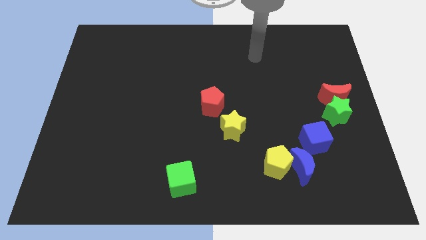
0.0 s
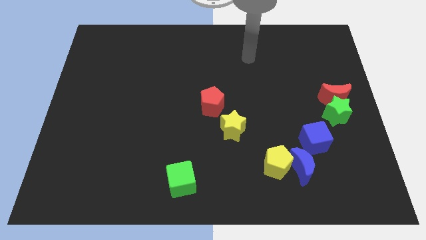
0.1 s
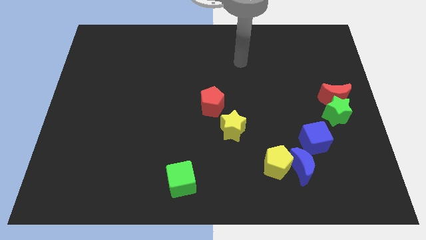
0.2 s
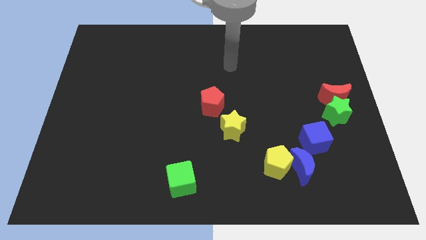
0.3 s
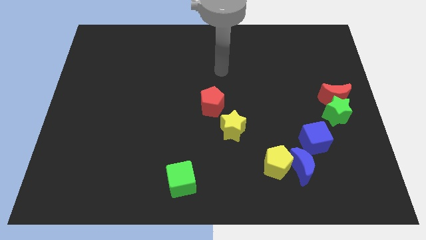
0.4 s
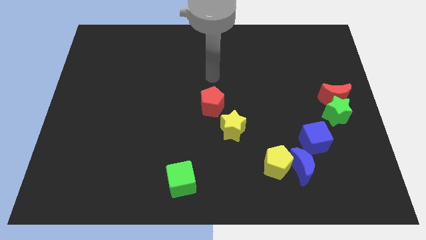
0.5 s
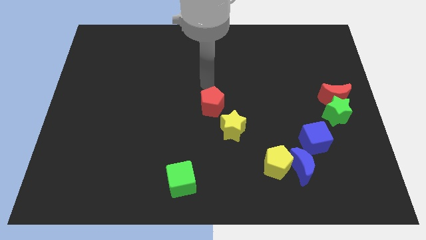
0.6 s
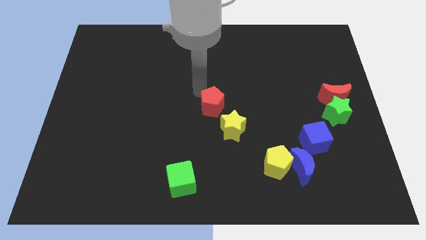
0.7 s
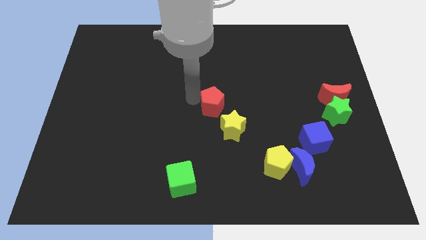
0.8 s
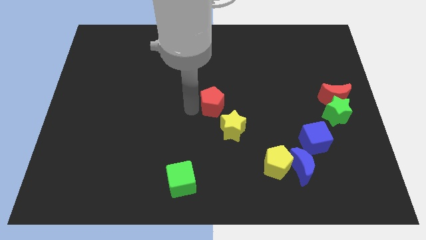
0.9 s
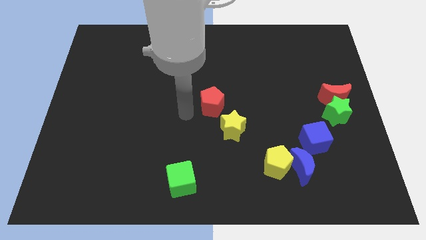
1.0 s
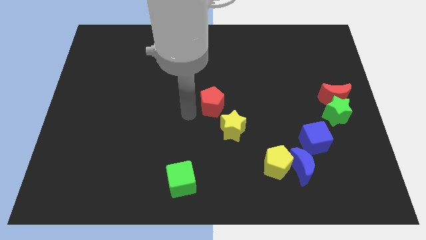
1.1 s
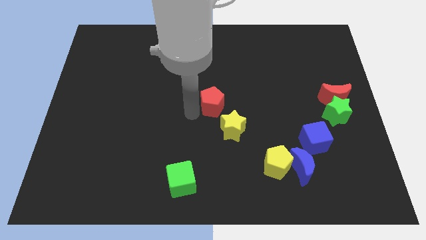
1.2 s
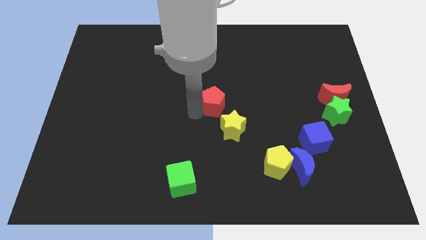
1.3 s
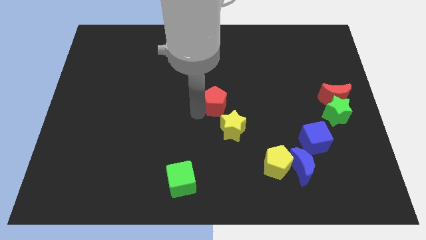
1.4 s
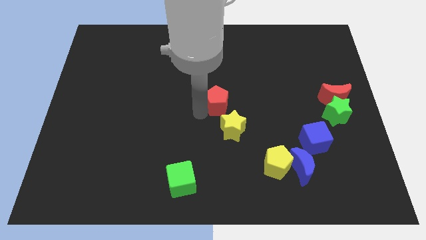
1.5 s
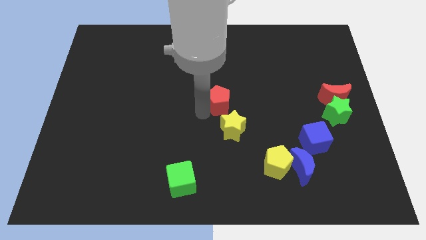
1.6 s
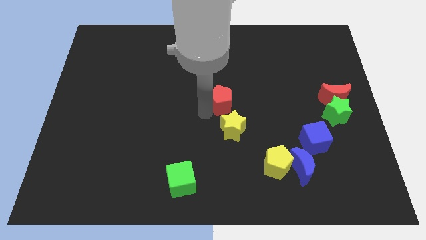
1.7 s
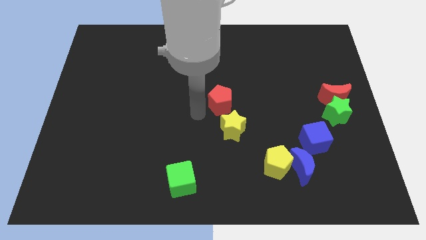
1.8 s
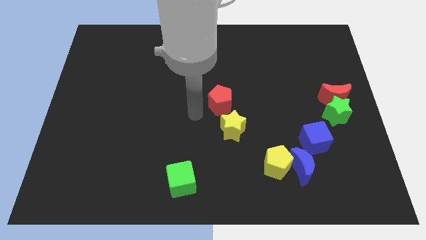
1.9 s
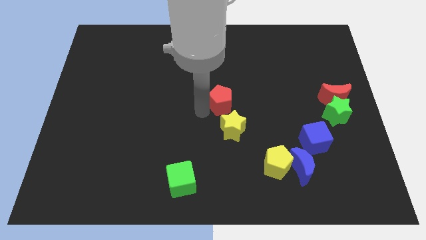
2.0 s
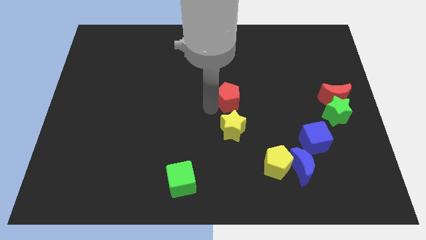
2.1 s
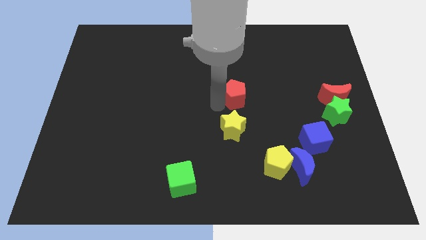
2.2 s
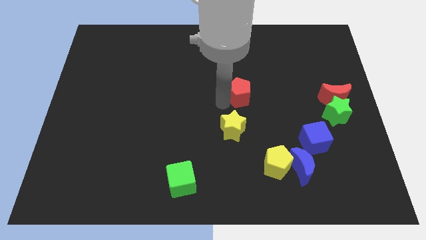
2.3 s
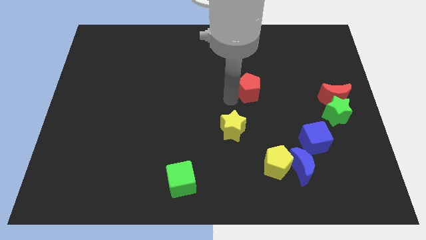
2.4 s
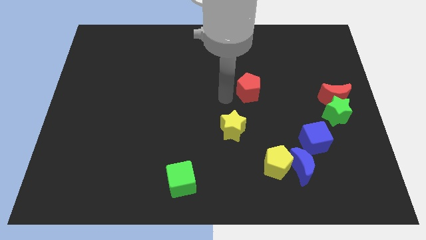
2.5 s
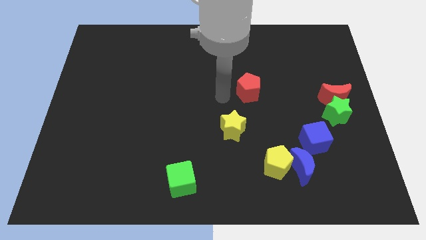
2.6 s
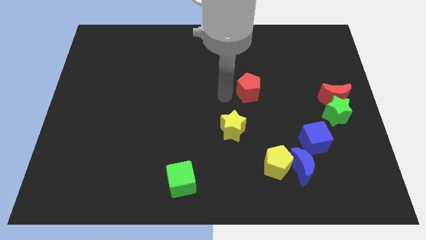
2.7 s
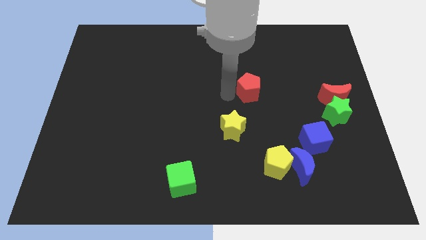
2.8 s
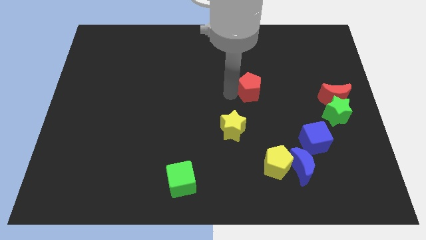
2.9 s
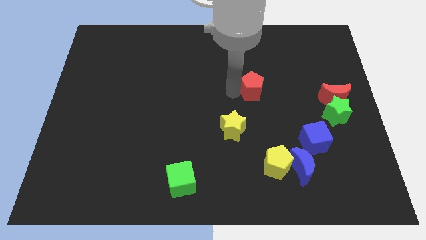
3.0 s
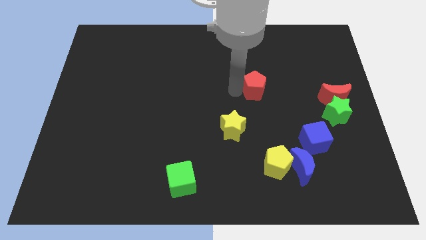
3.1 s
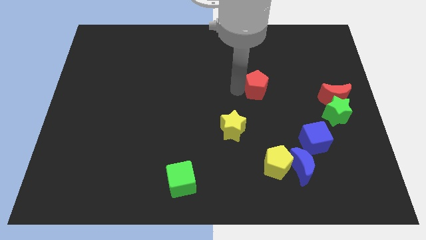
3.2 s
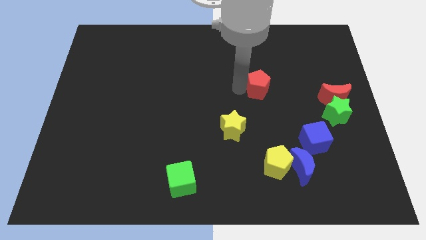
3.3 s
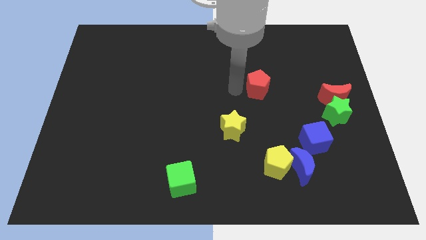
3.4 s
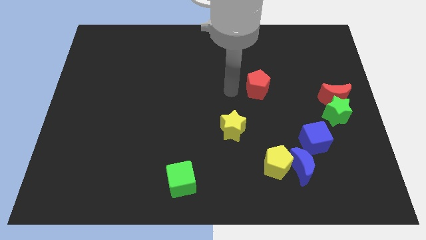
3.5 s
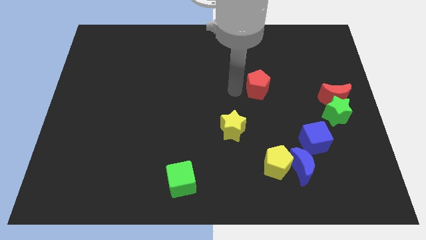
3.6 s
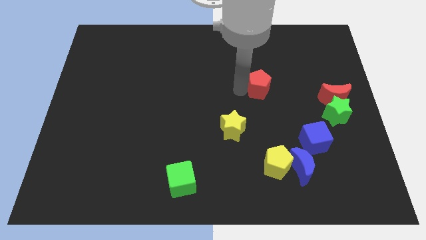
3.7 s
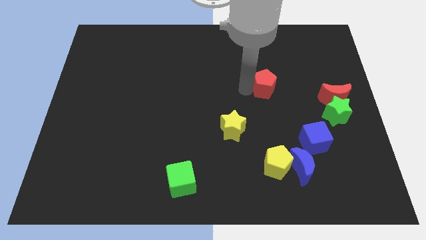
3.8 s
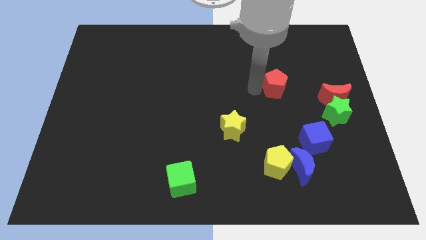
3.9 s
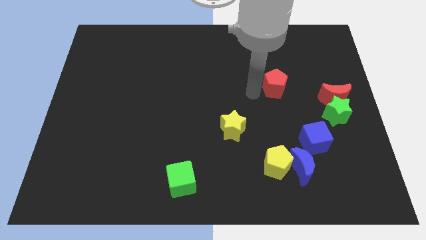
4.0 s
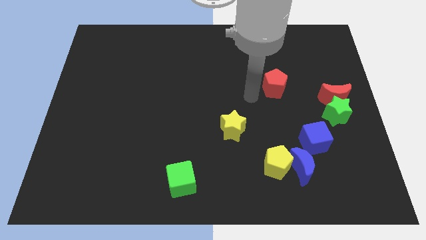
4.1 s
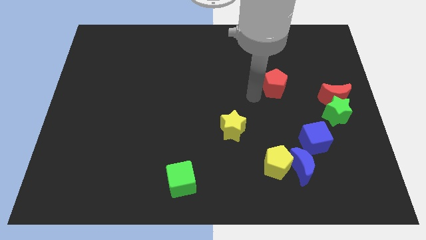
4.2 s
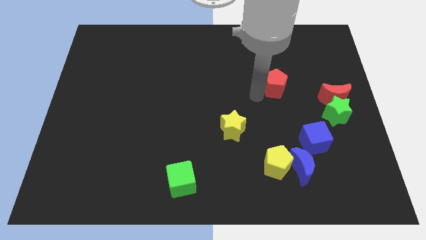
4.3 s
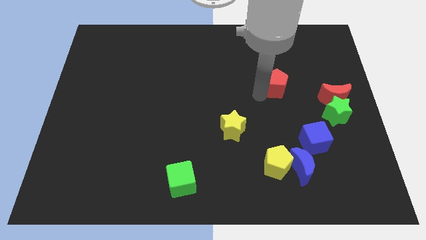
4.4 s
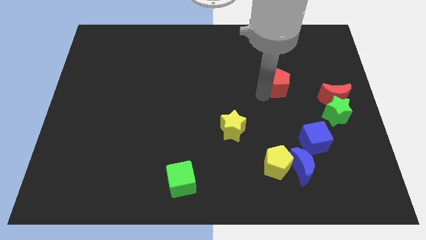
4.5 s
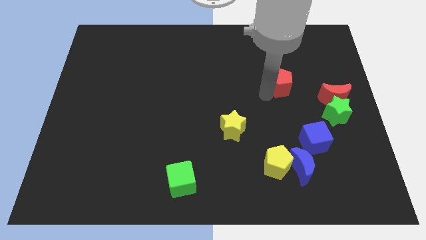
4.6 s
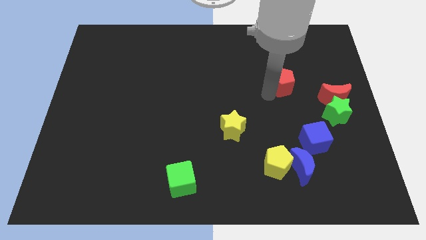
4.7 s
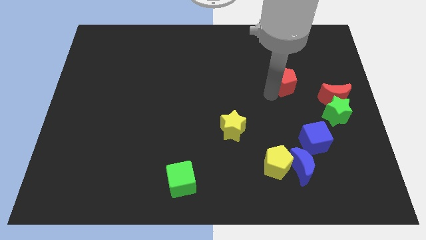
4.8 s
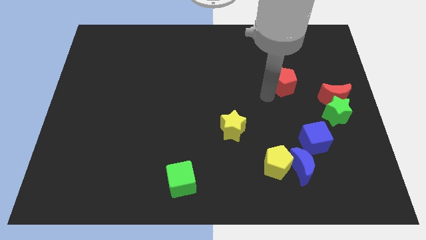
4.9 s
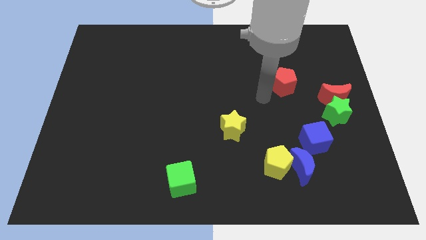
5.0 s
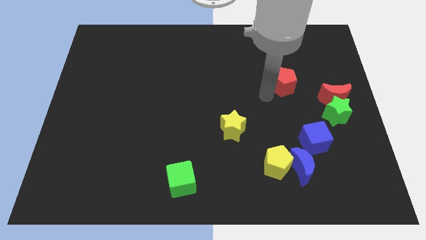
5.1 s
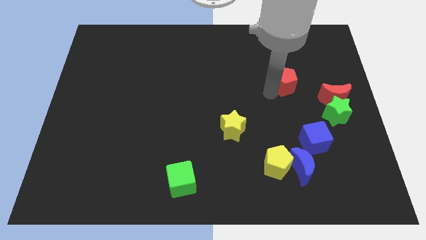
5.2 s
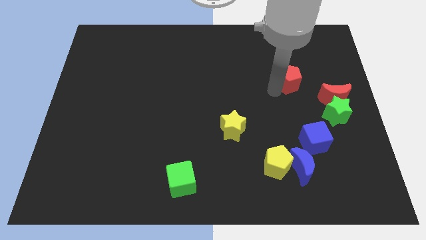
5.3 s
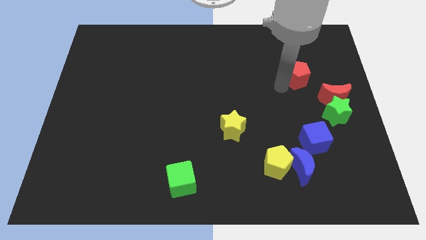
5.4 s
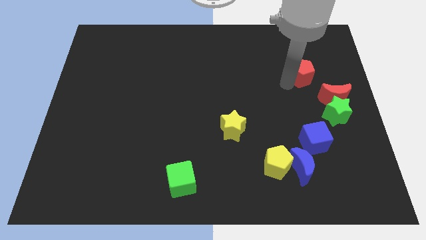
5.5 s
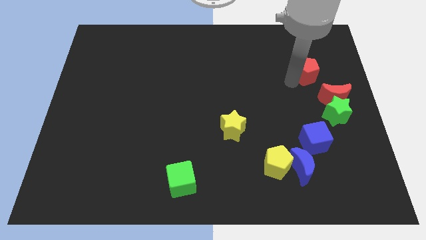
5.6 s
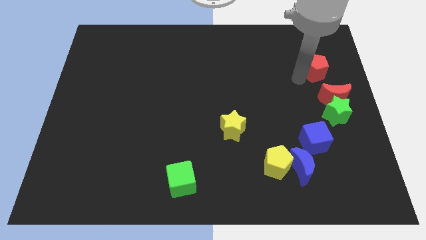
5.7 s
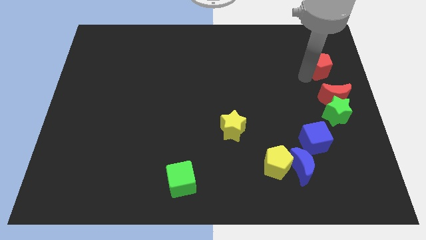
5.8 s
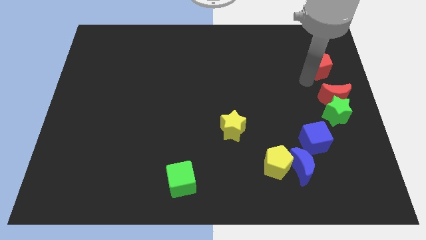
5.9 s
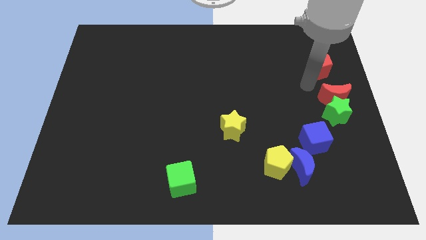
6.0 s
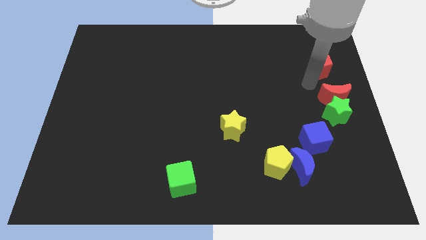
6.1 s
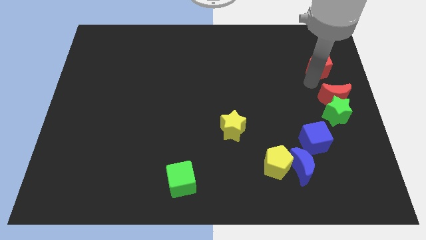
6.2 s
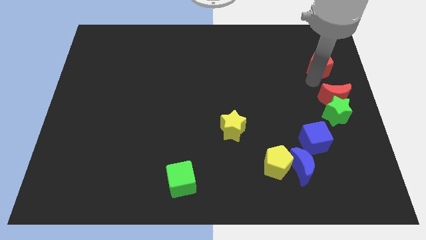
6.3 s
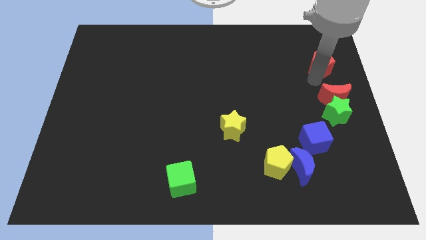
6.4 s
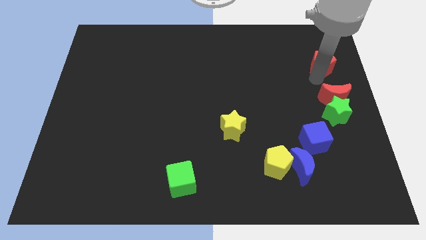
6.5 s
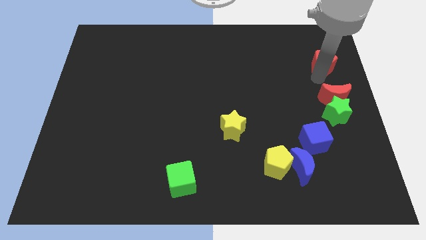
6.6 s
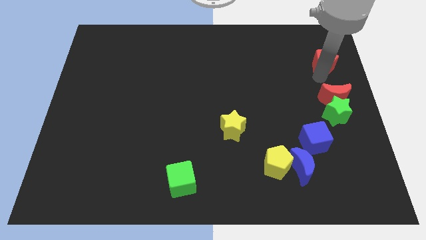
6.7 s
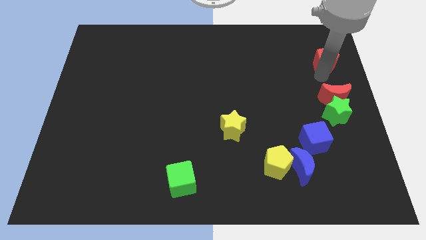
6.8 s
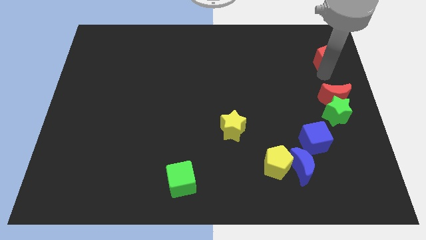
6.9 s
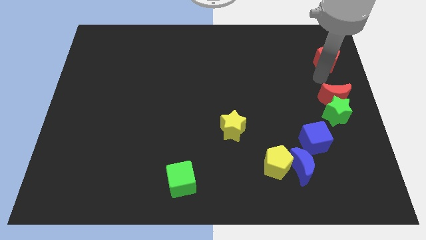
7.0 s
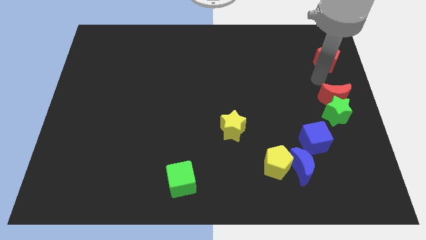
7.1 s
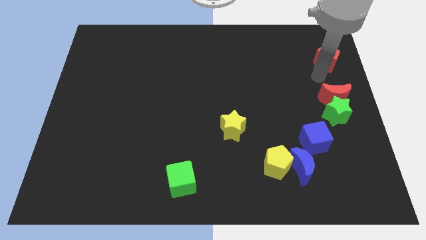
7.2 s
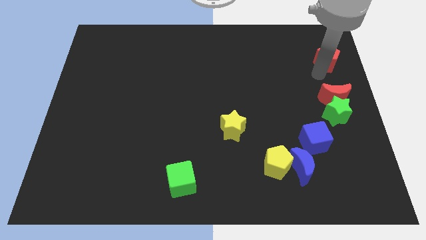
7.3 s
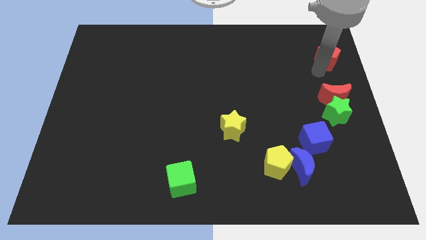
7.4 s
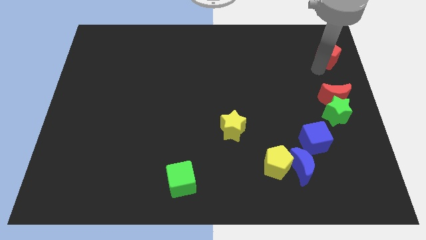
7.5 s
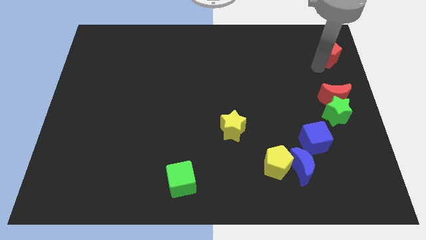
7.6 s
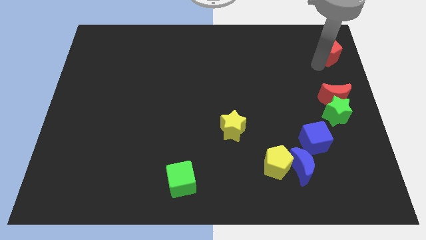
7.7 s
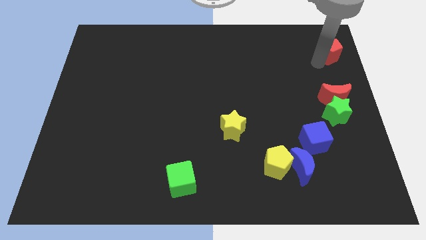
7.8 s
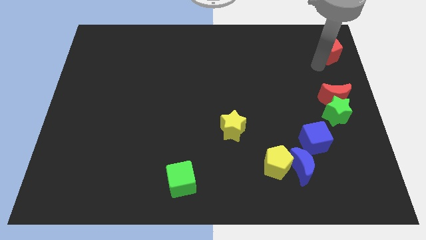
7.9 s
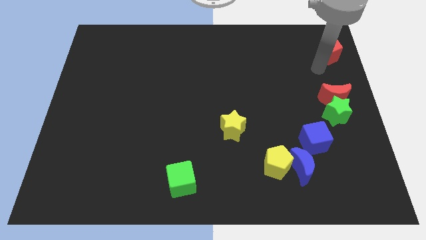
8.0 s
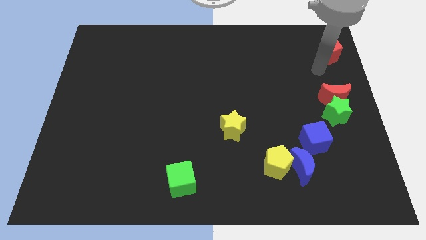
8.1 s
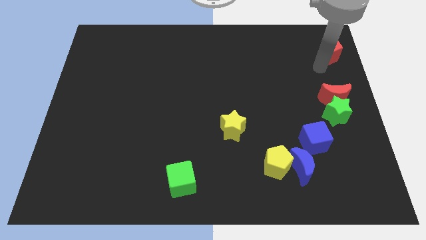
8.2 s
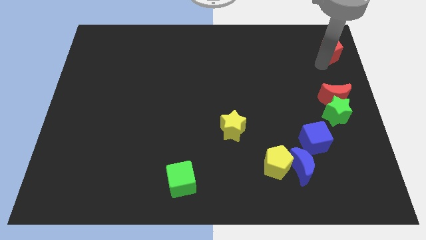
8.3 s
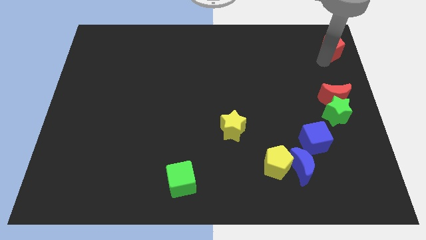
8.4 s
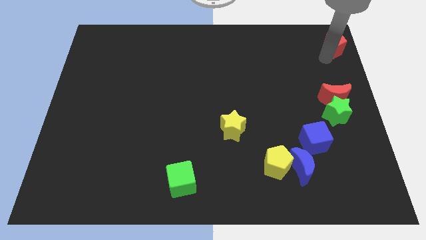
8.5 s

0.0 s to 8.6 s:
slide the red pentagon to the upper right corner
